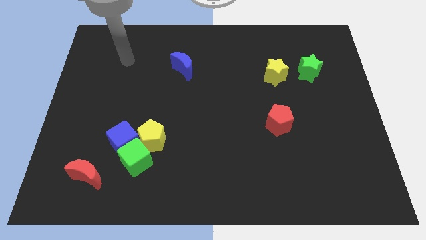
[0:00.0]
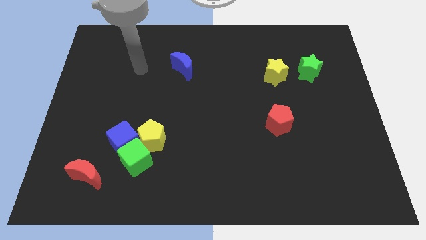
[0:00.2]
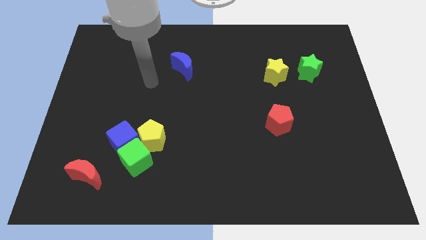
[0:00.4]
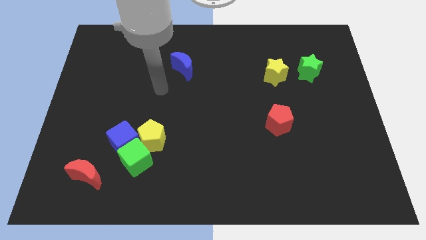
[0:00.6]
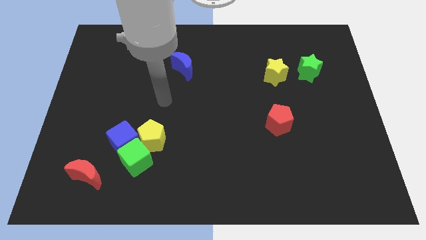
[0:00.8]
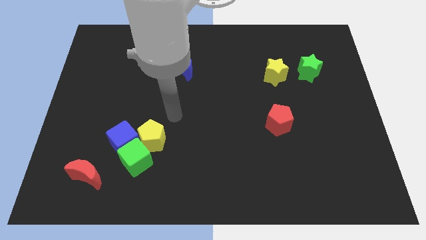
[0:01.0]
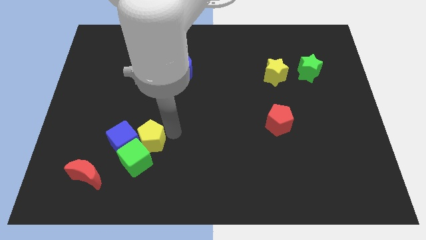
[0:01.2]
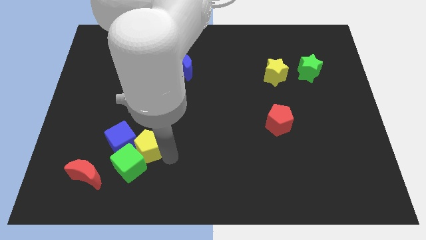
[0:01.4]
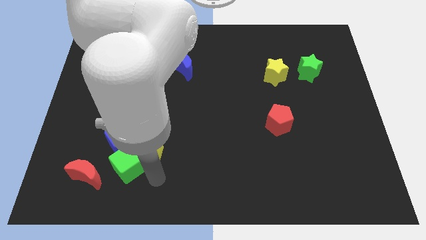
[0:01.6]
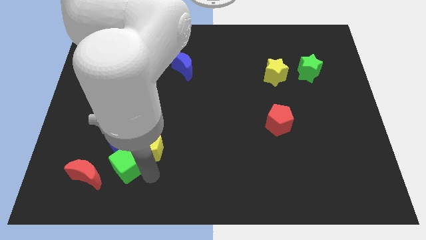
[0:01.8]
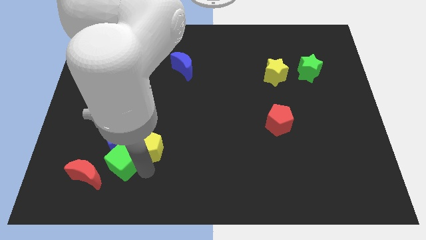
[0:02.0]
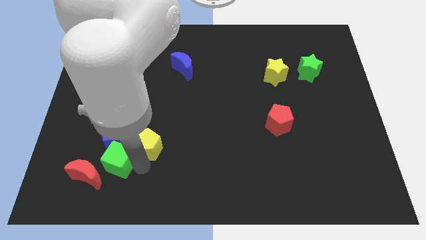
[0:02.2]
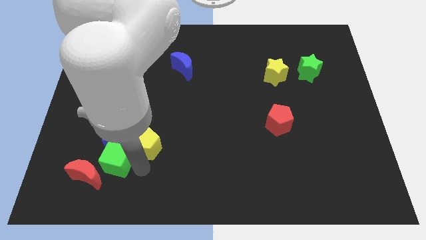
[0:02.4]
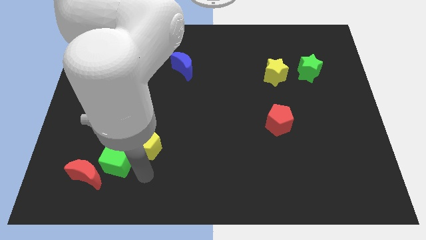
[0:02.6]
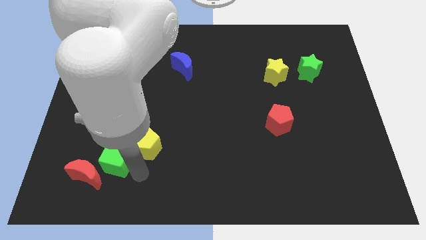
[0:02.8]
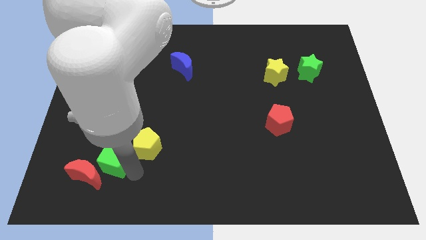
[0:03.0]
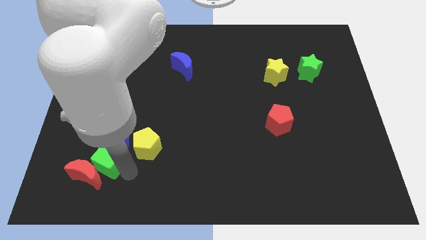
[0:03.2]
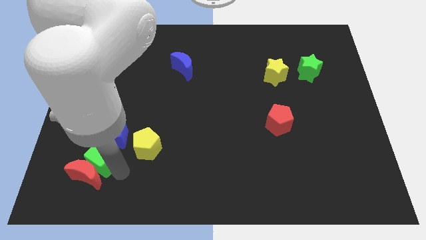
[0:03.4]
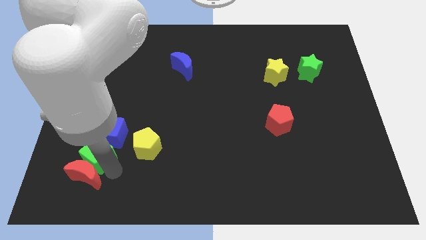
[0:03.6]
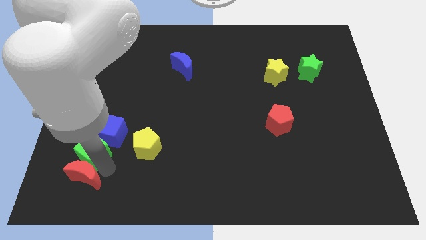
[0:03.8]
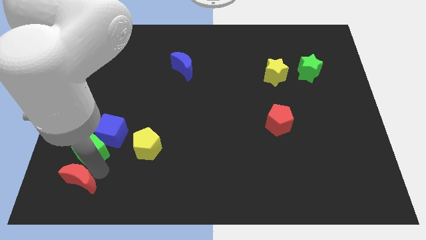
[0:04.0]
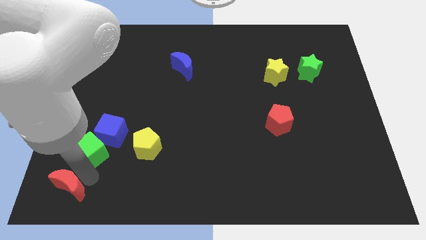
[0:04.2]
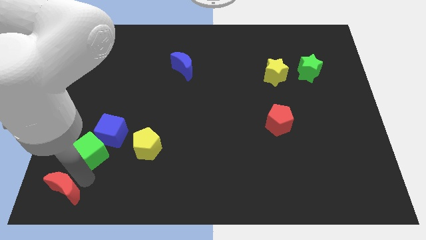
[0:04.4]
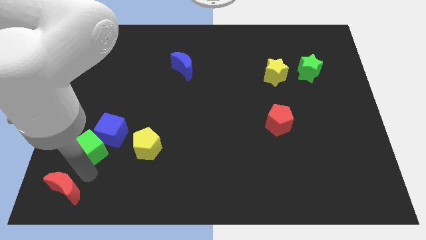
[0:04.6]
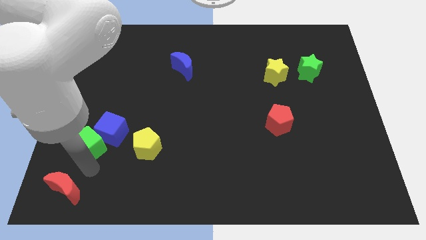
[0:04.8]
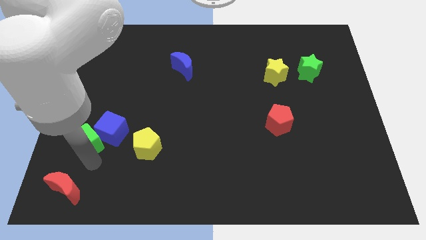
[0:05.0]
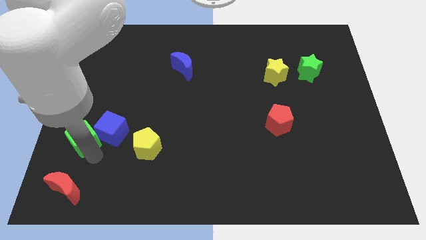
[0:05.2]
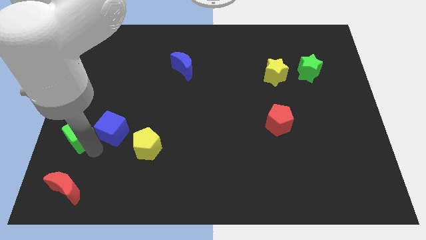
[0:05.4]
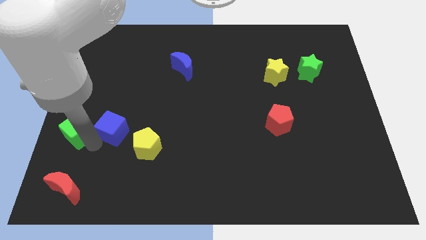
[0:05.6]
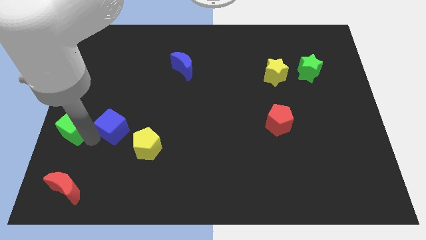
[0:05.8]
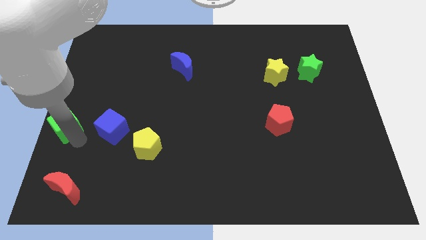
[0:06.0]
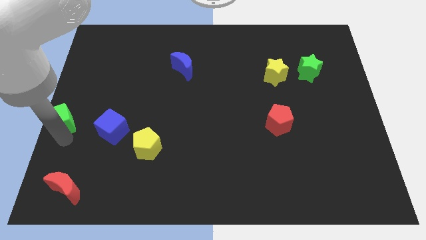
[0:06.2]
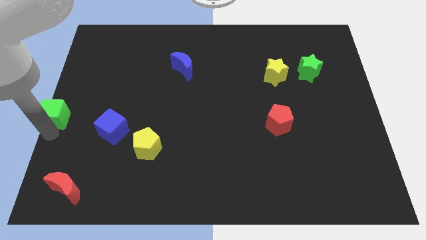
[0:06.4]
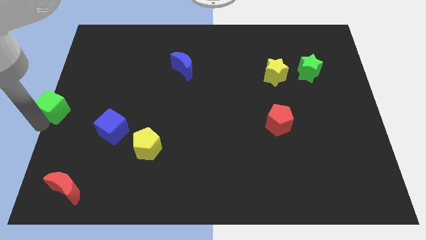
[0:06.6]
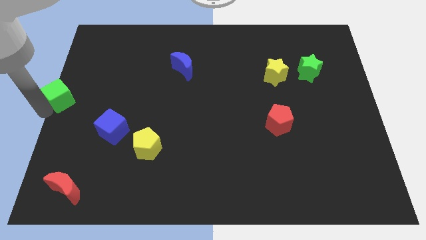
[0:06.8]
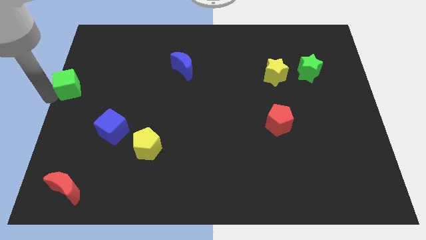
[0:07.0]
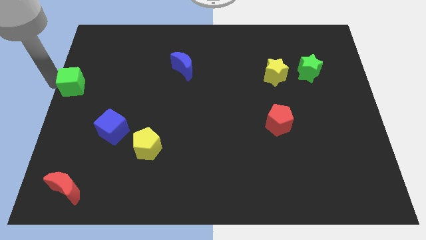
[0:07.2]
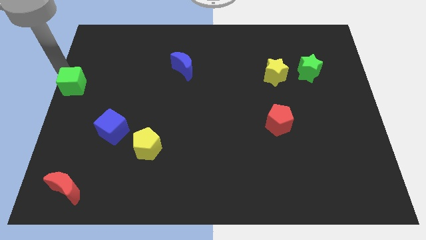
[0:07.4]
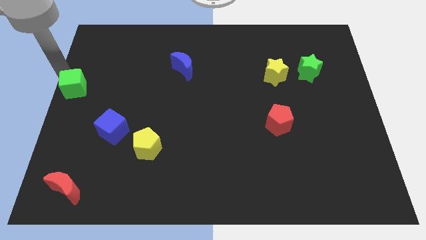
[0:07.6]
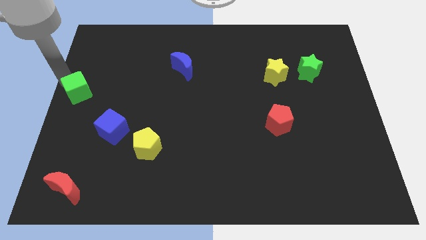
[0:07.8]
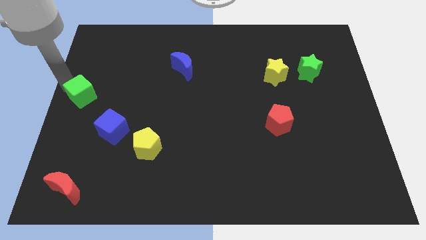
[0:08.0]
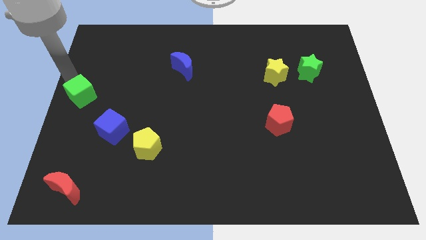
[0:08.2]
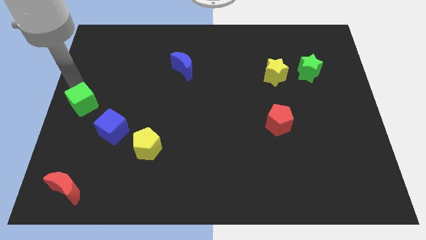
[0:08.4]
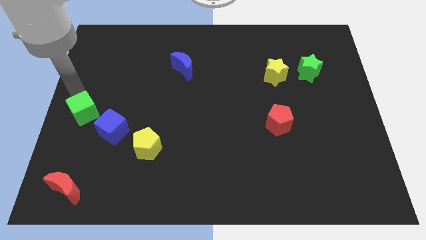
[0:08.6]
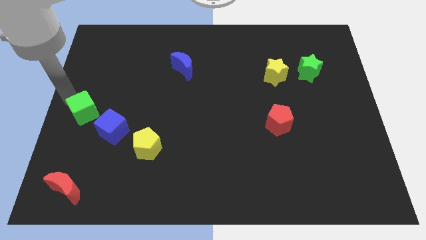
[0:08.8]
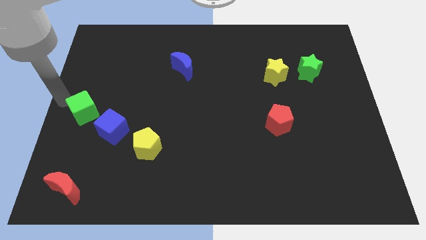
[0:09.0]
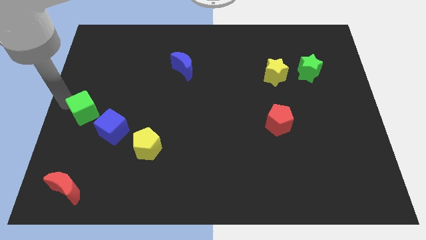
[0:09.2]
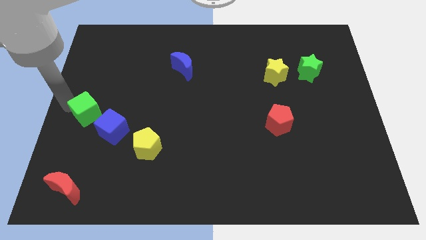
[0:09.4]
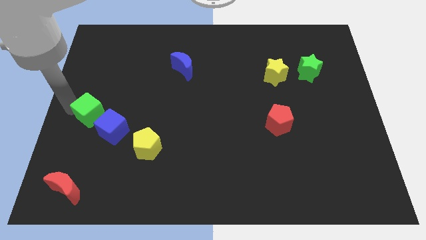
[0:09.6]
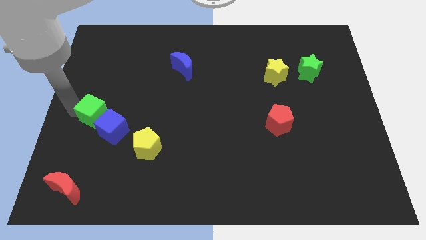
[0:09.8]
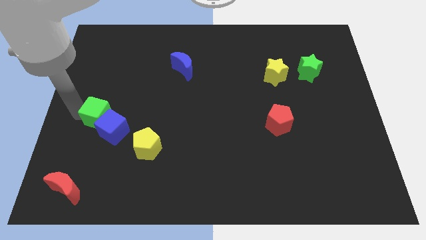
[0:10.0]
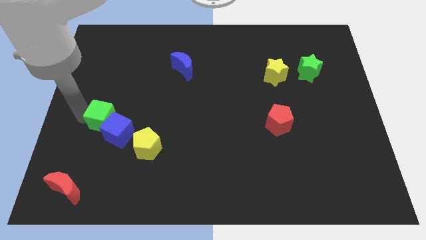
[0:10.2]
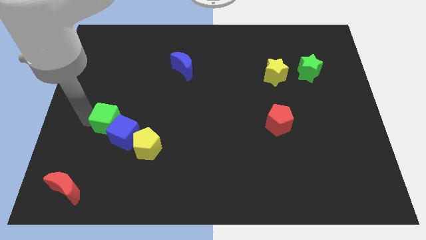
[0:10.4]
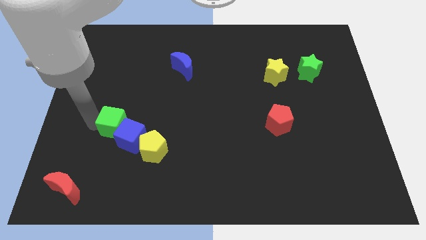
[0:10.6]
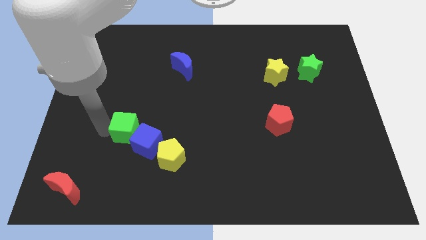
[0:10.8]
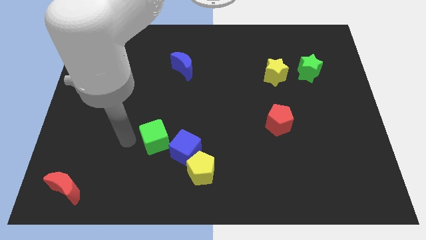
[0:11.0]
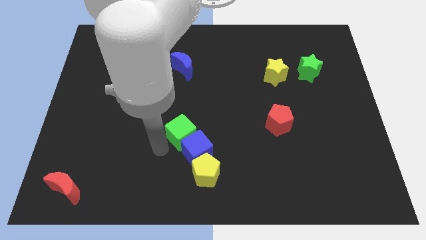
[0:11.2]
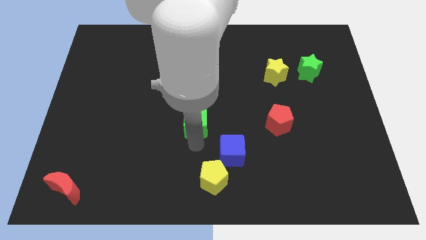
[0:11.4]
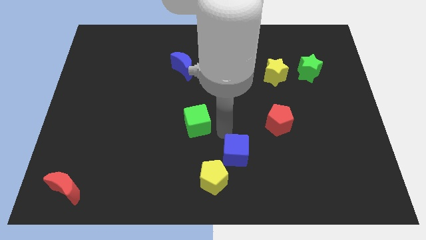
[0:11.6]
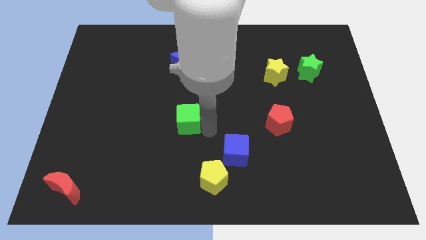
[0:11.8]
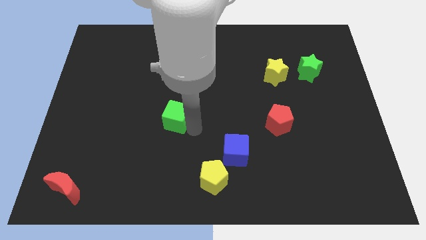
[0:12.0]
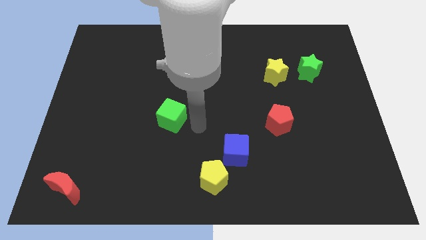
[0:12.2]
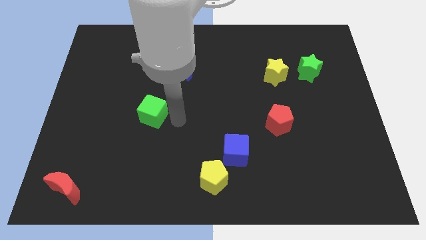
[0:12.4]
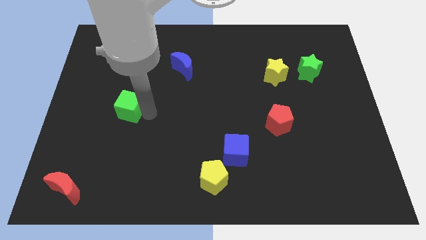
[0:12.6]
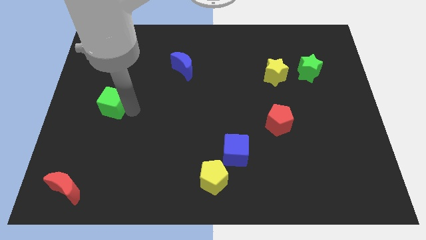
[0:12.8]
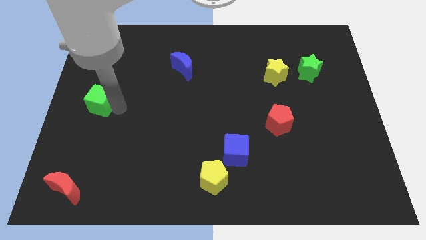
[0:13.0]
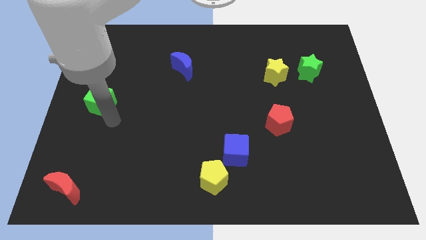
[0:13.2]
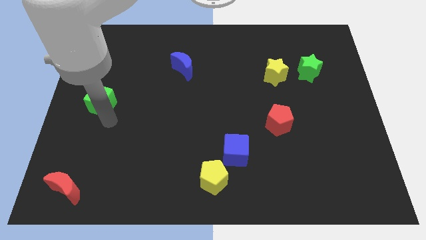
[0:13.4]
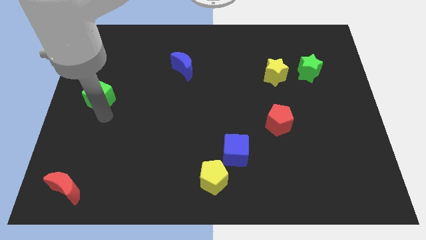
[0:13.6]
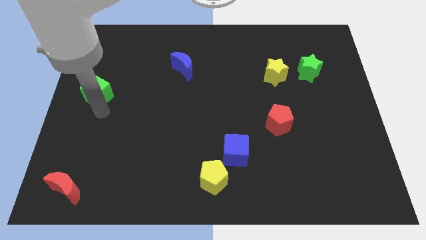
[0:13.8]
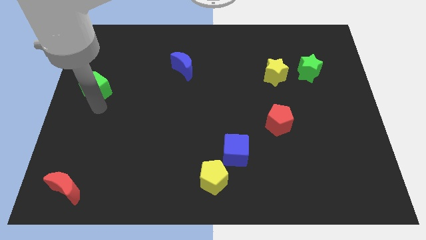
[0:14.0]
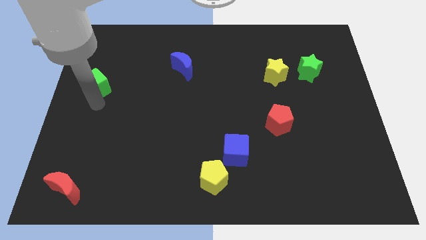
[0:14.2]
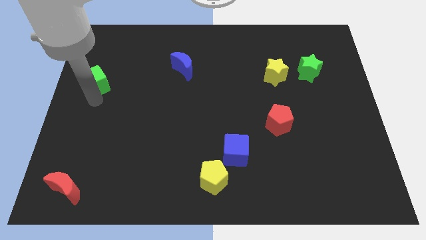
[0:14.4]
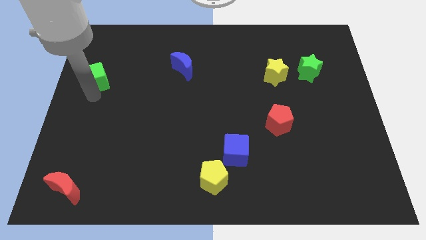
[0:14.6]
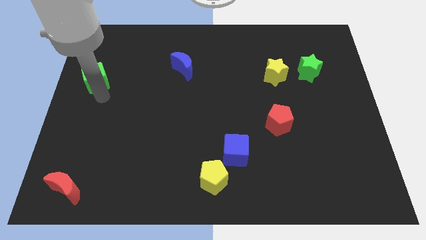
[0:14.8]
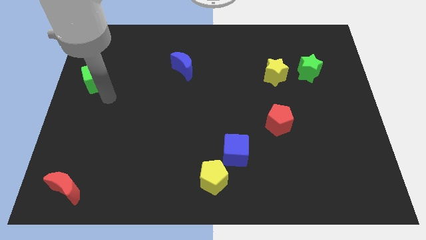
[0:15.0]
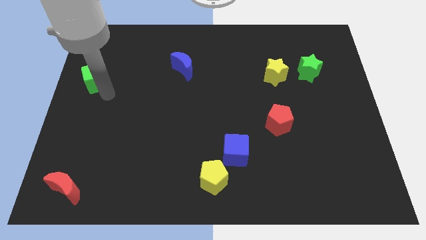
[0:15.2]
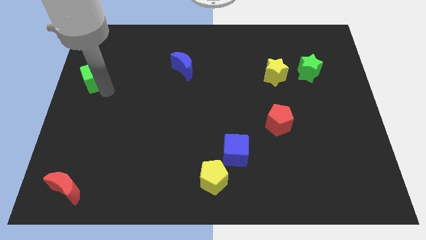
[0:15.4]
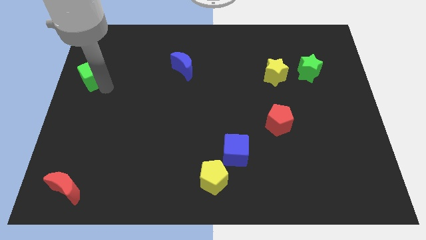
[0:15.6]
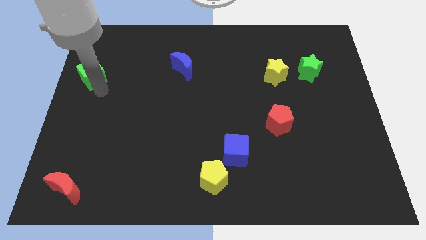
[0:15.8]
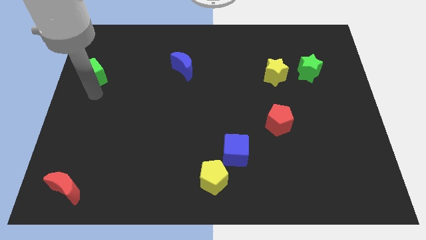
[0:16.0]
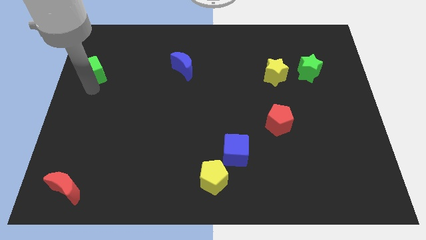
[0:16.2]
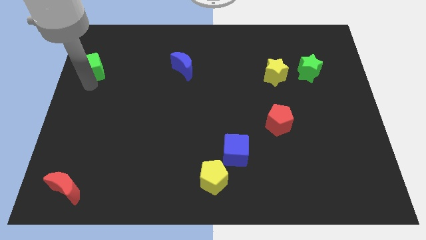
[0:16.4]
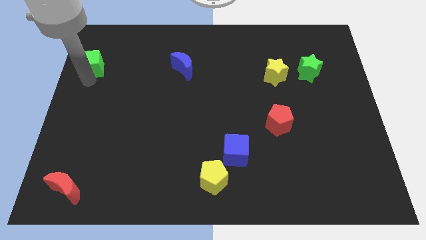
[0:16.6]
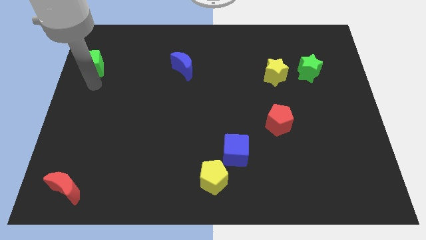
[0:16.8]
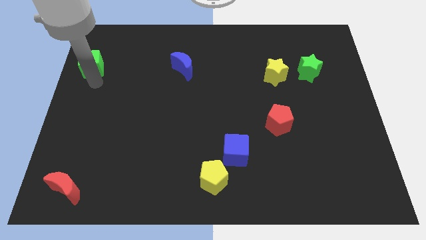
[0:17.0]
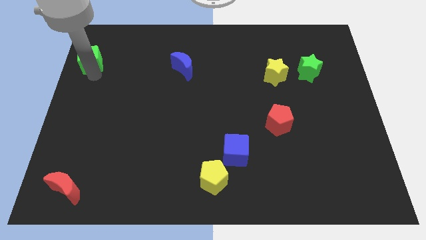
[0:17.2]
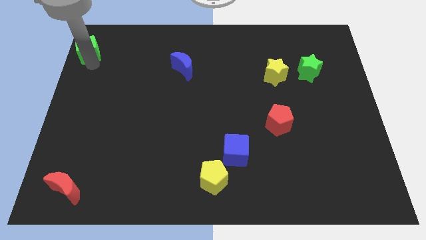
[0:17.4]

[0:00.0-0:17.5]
push the green cube to the top left of the board
